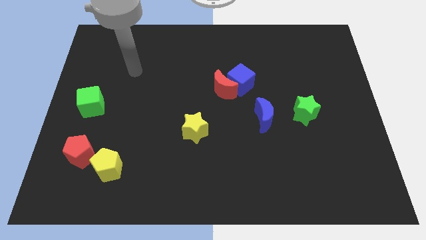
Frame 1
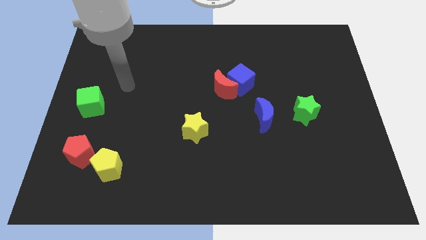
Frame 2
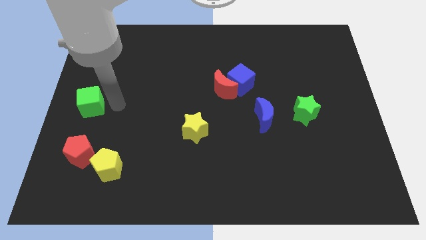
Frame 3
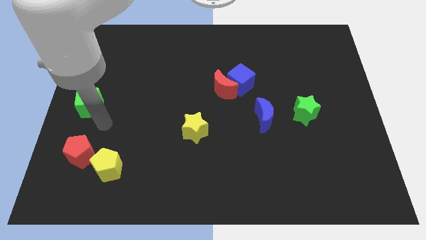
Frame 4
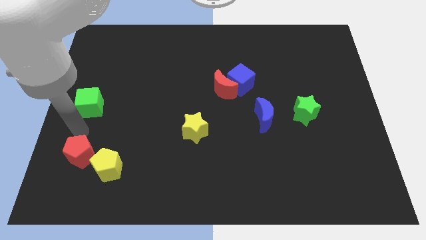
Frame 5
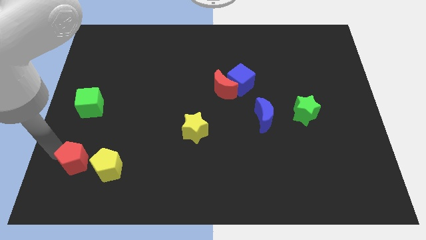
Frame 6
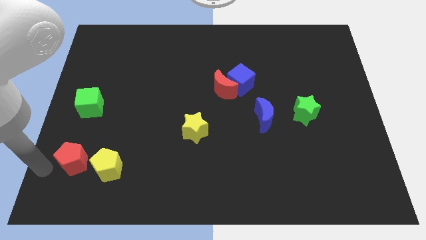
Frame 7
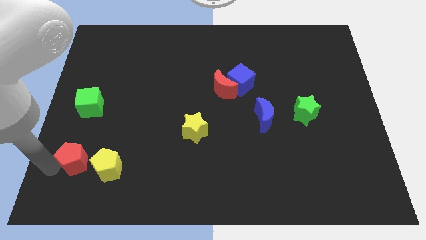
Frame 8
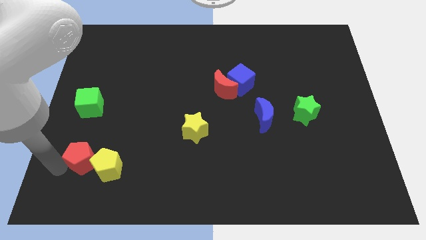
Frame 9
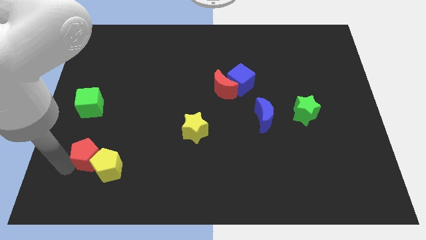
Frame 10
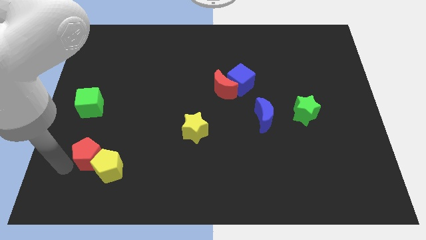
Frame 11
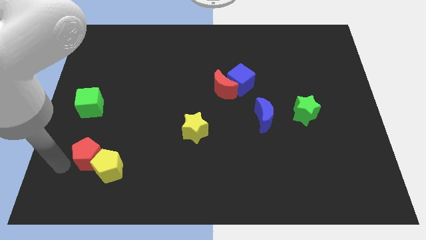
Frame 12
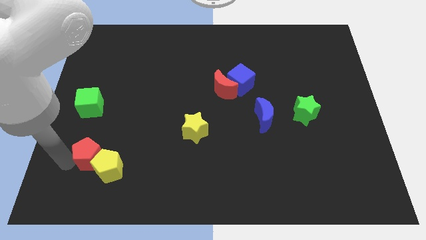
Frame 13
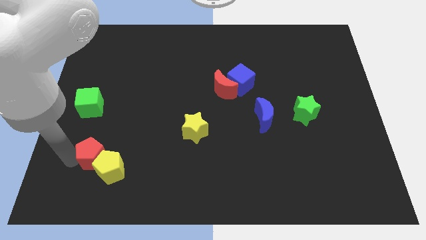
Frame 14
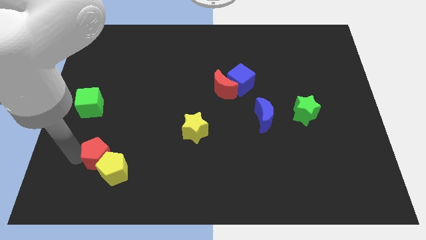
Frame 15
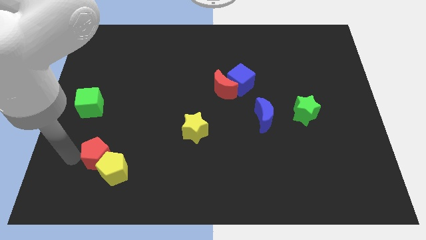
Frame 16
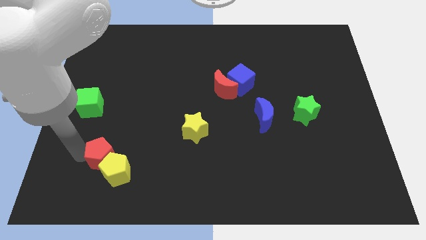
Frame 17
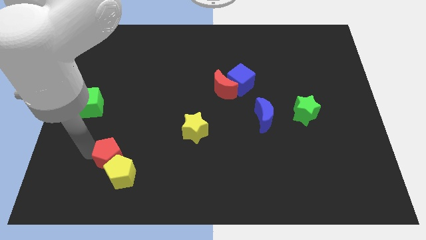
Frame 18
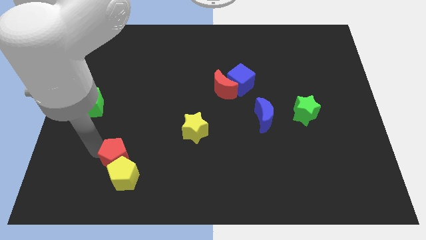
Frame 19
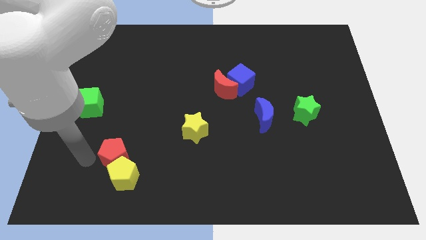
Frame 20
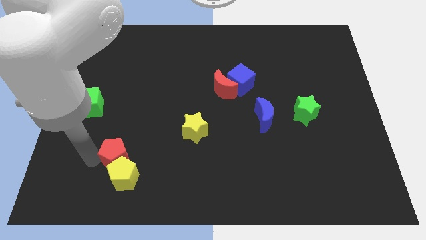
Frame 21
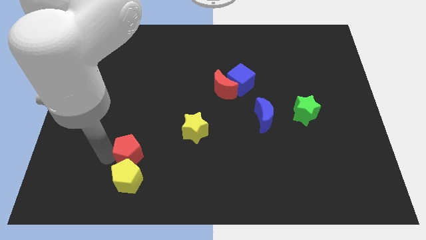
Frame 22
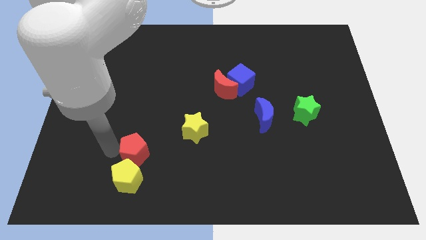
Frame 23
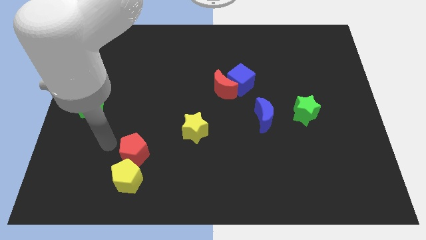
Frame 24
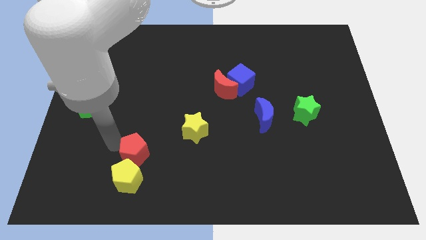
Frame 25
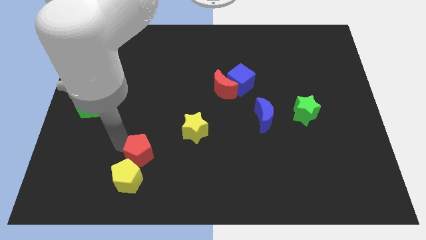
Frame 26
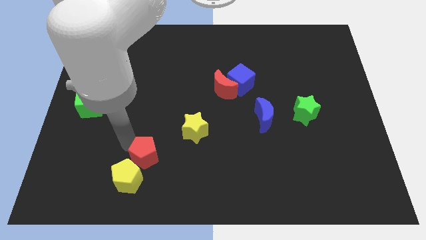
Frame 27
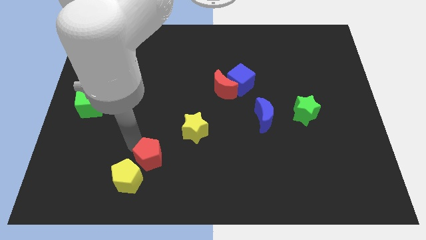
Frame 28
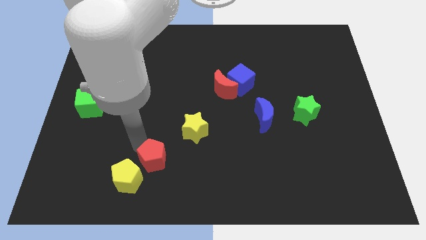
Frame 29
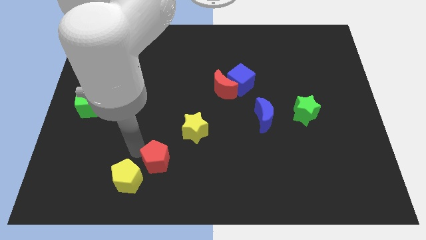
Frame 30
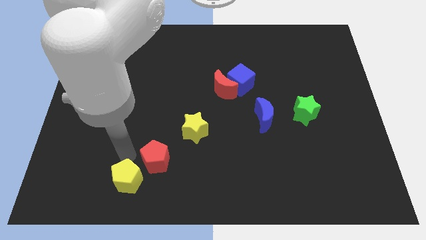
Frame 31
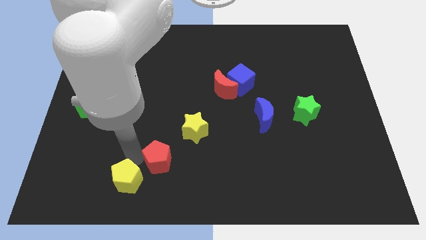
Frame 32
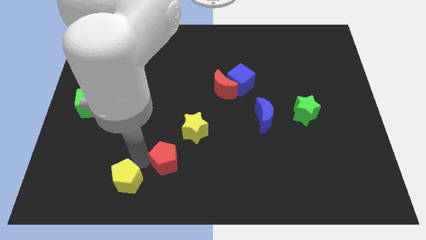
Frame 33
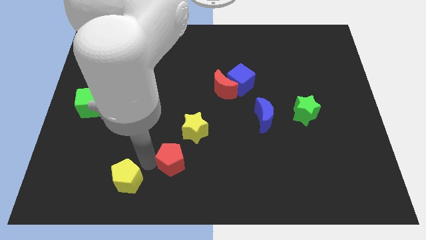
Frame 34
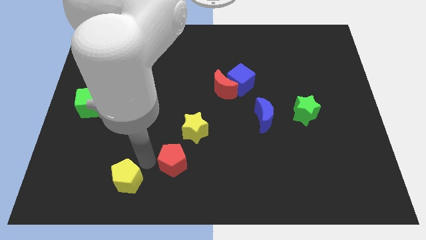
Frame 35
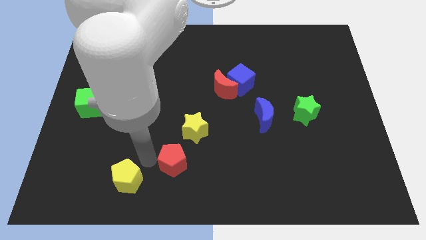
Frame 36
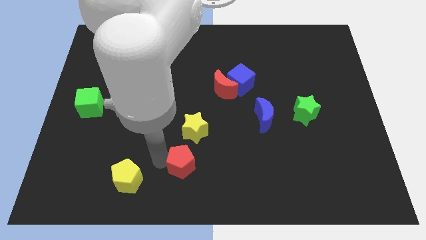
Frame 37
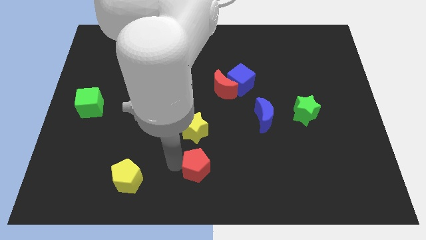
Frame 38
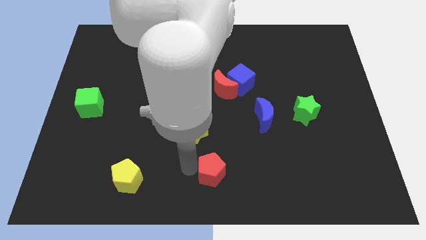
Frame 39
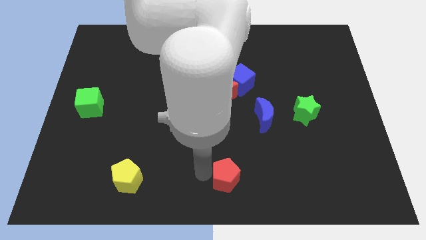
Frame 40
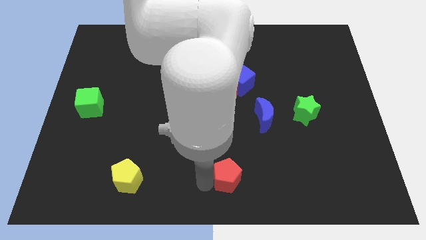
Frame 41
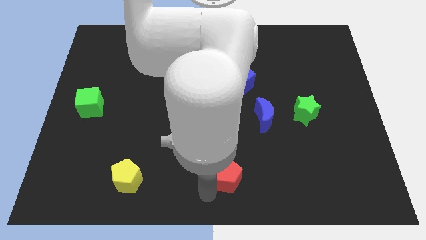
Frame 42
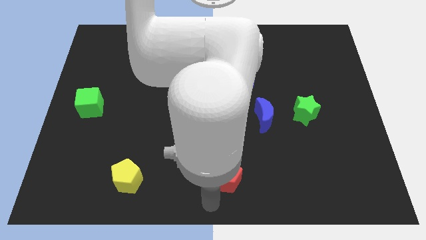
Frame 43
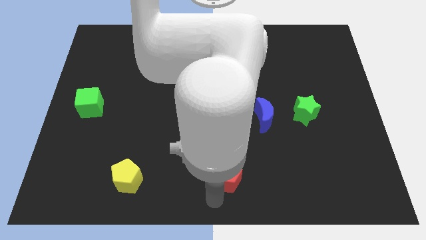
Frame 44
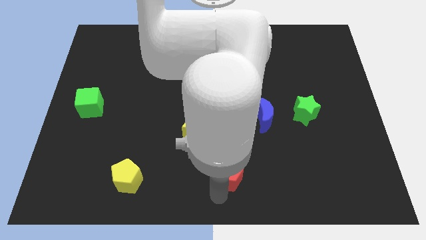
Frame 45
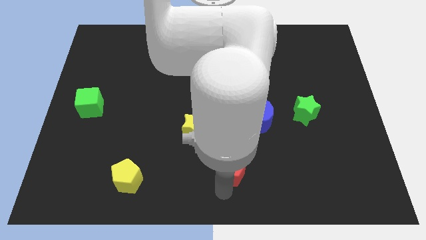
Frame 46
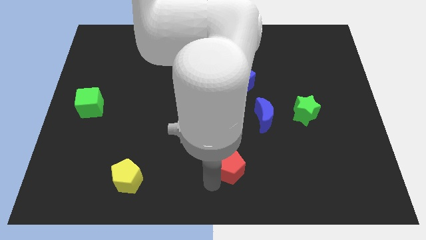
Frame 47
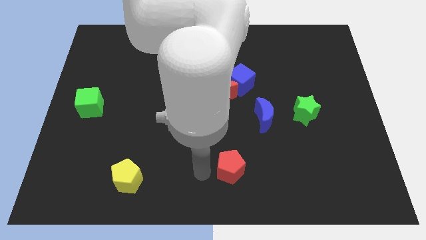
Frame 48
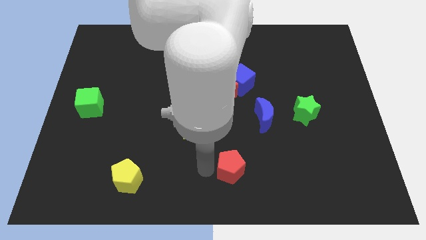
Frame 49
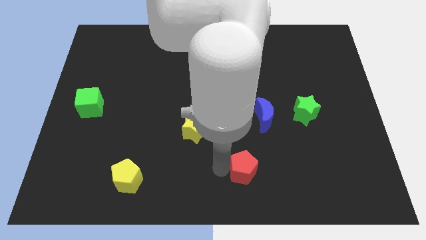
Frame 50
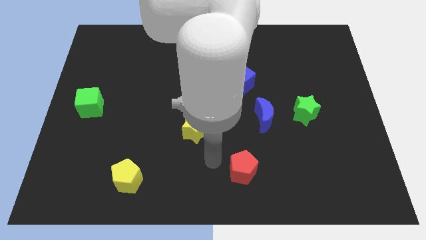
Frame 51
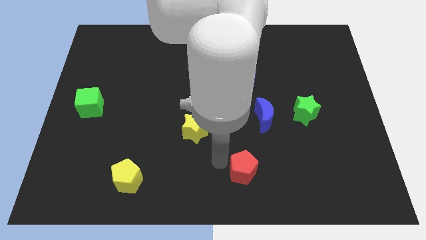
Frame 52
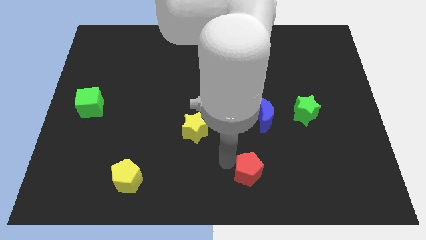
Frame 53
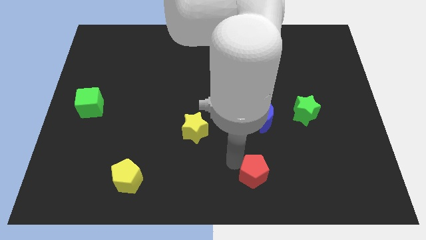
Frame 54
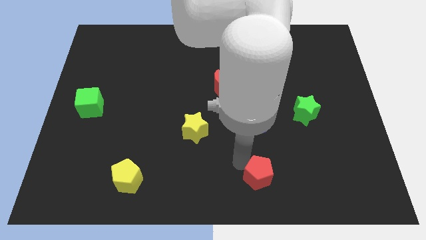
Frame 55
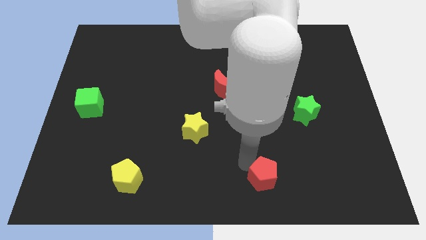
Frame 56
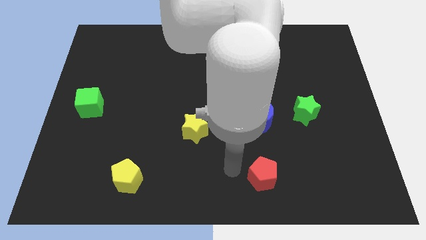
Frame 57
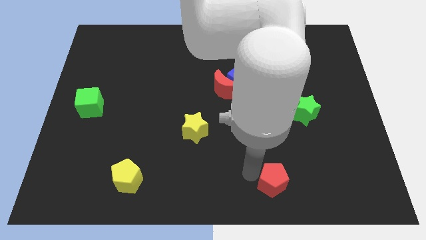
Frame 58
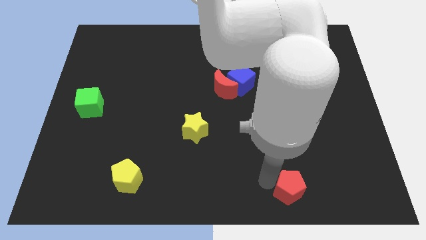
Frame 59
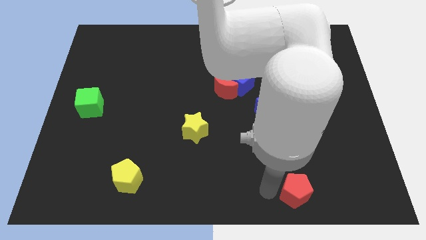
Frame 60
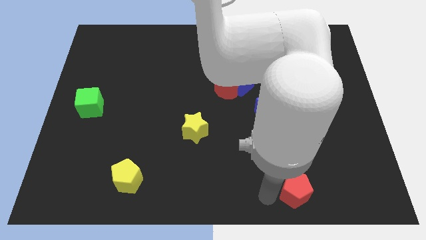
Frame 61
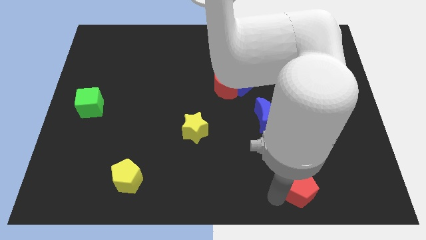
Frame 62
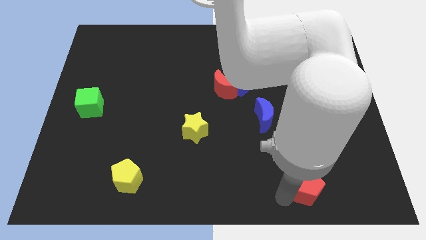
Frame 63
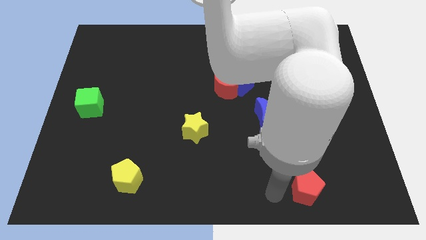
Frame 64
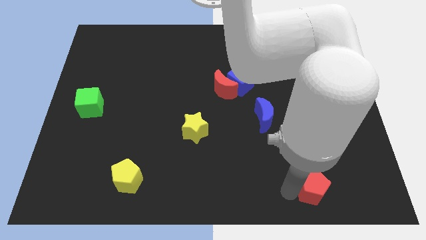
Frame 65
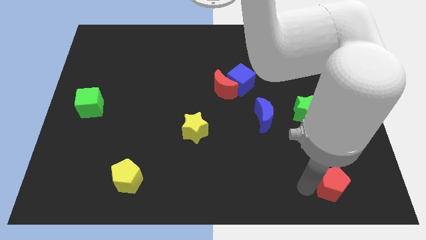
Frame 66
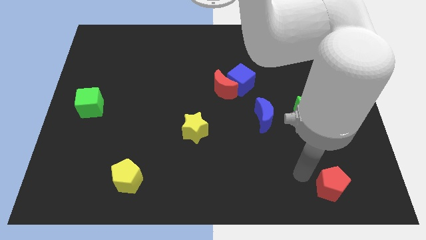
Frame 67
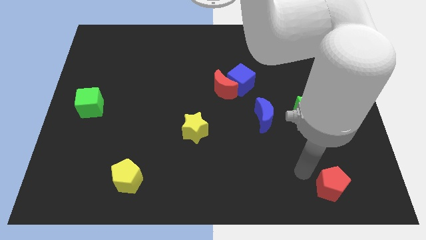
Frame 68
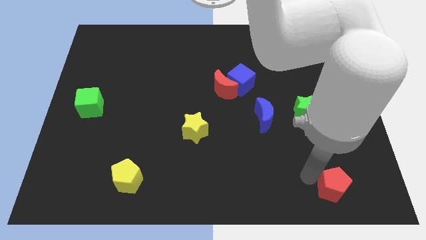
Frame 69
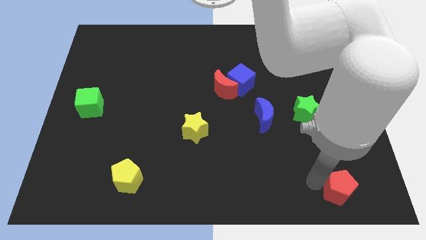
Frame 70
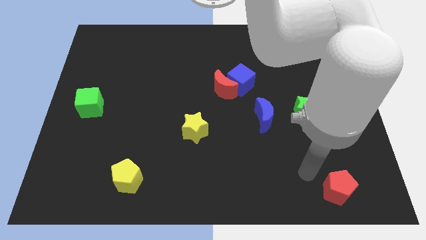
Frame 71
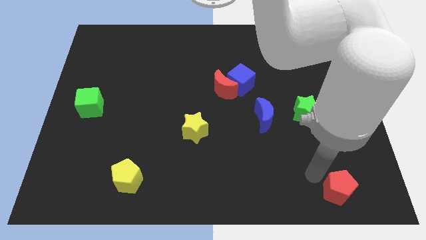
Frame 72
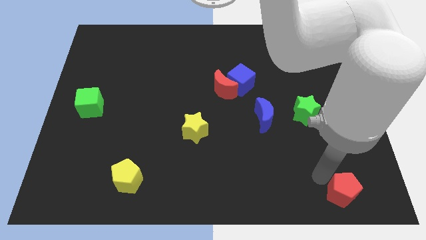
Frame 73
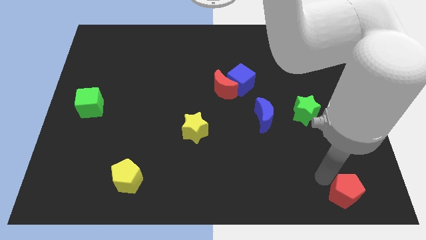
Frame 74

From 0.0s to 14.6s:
push the red pentagon to the bottom right corner
